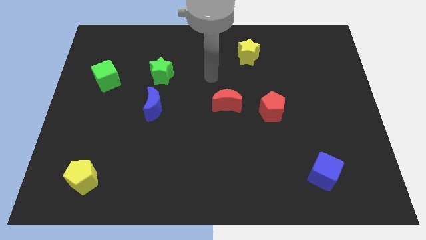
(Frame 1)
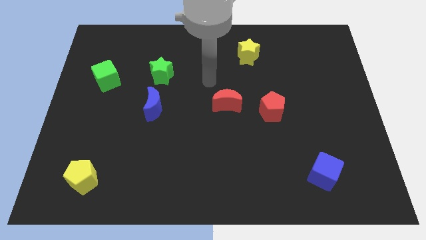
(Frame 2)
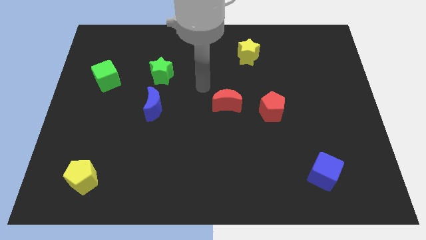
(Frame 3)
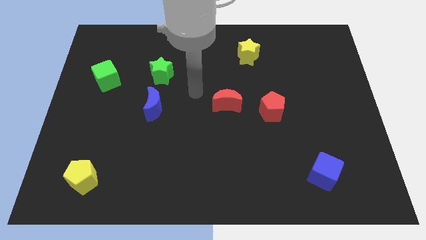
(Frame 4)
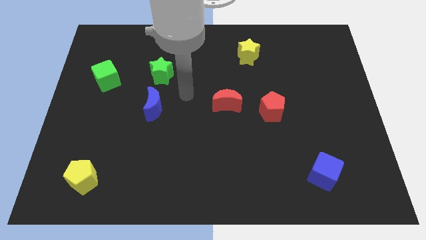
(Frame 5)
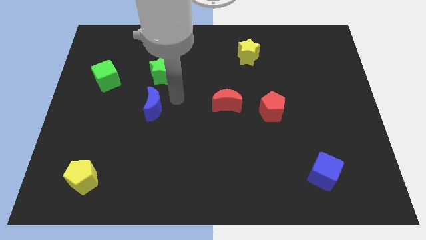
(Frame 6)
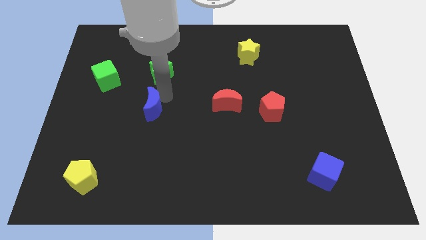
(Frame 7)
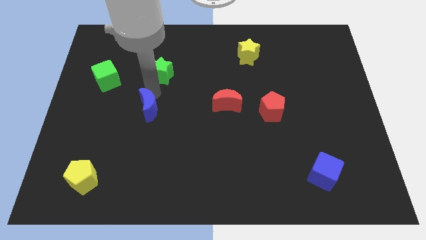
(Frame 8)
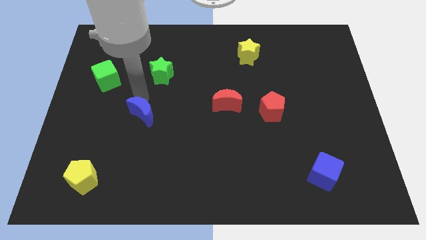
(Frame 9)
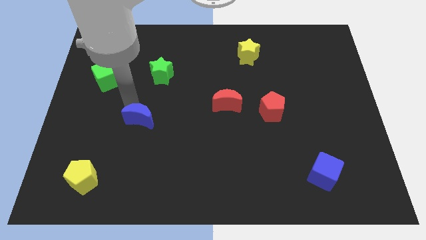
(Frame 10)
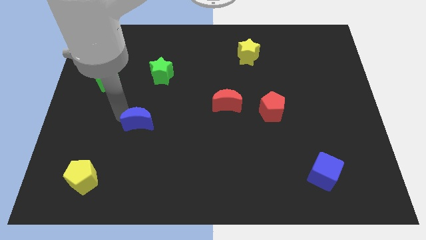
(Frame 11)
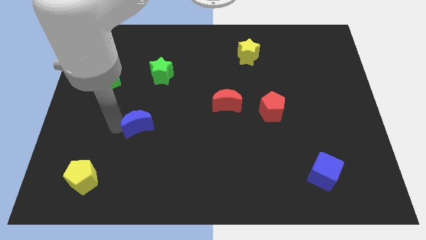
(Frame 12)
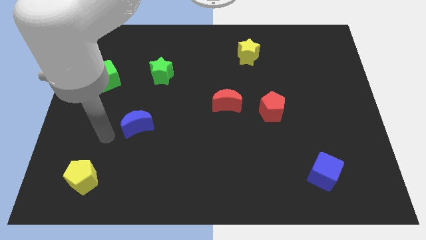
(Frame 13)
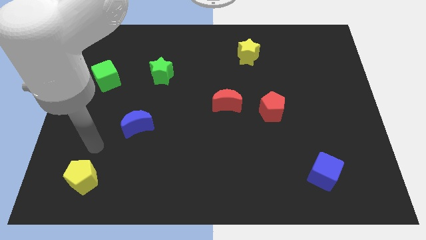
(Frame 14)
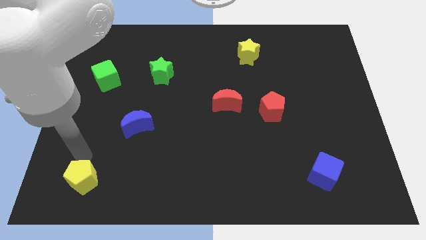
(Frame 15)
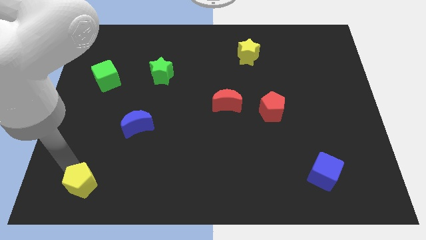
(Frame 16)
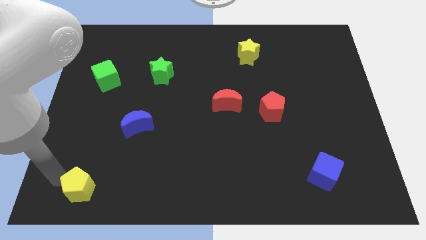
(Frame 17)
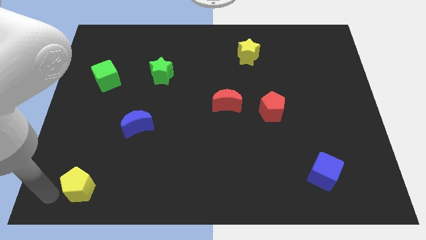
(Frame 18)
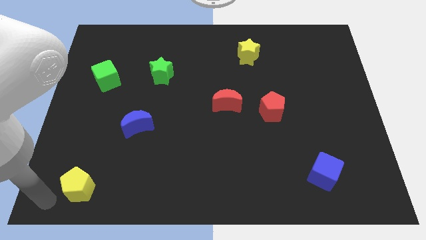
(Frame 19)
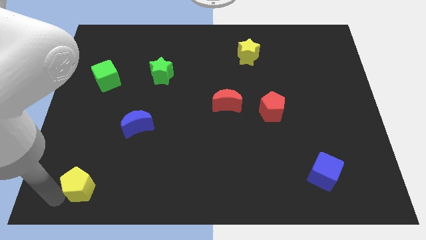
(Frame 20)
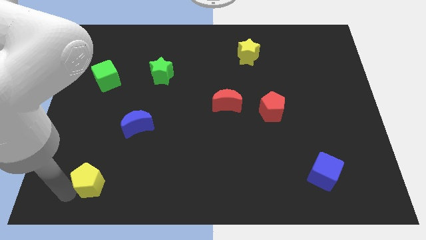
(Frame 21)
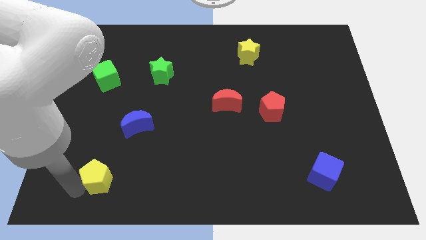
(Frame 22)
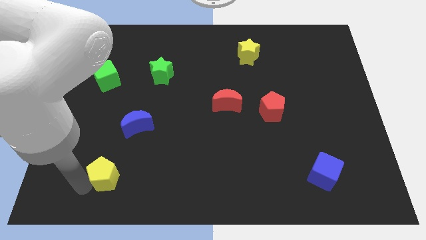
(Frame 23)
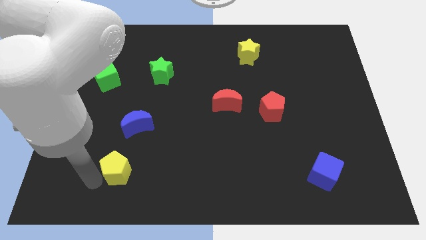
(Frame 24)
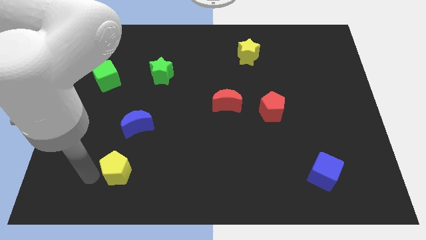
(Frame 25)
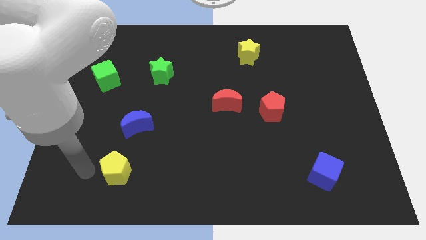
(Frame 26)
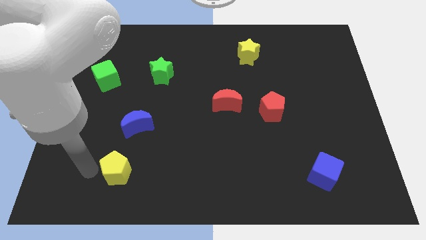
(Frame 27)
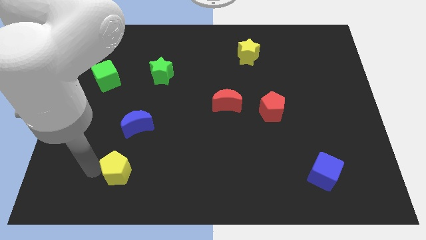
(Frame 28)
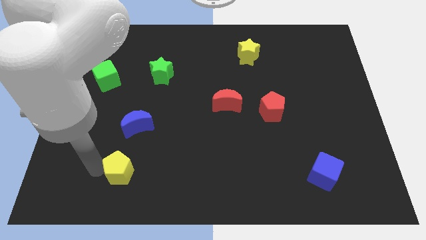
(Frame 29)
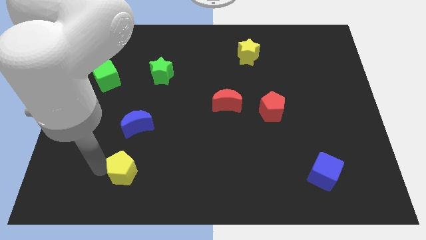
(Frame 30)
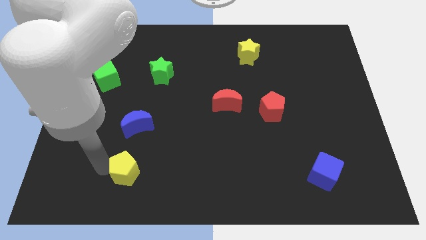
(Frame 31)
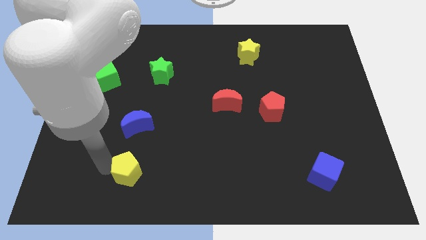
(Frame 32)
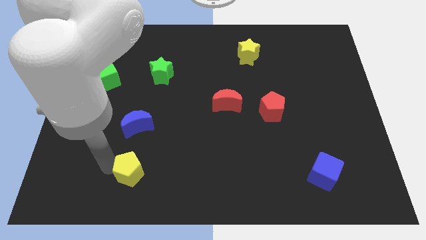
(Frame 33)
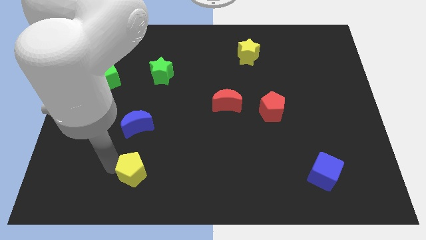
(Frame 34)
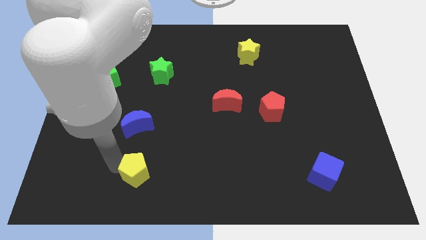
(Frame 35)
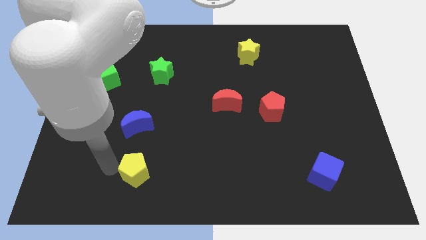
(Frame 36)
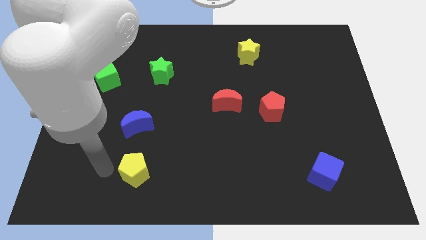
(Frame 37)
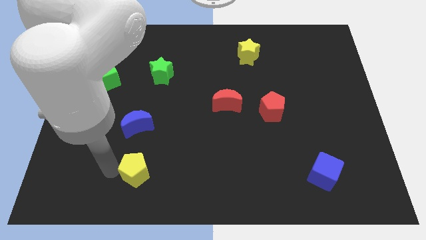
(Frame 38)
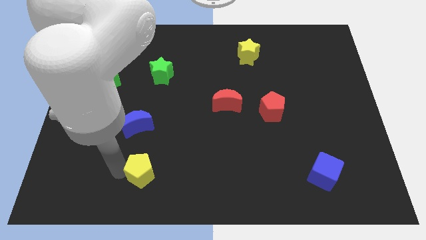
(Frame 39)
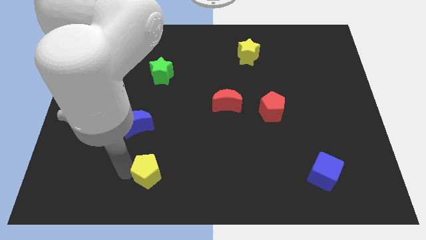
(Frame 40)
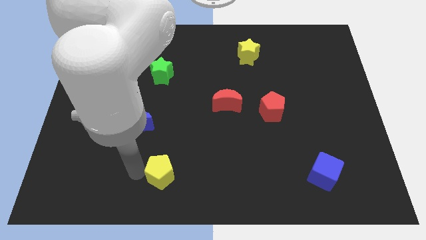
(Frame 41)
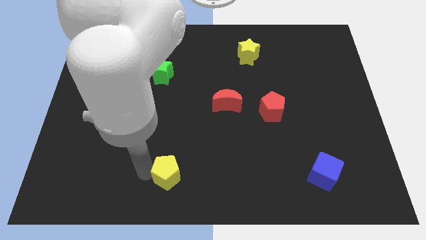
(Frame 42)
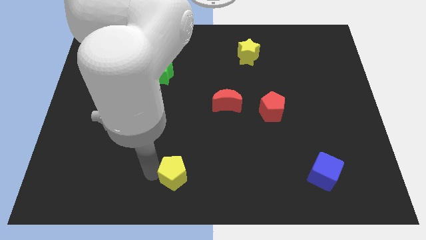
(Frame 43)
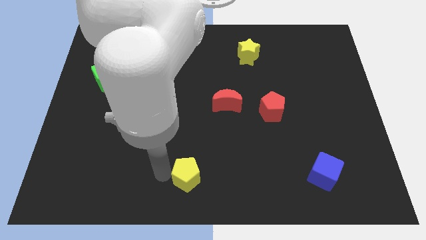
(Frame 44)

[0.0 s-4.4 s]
slide the yellow pentagon to the right

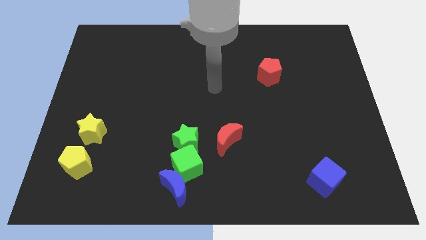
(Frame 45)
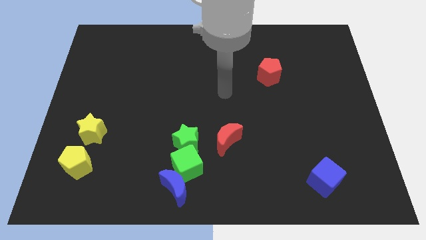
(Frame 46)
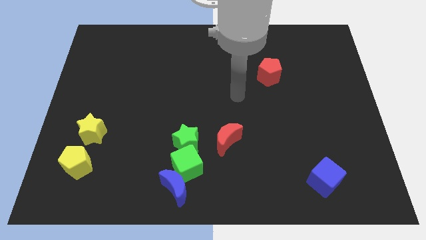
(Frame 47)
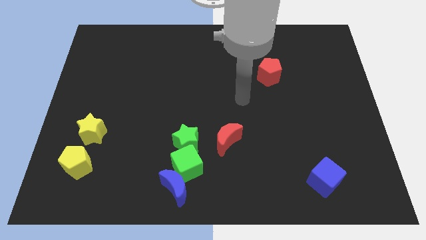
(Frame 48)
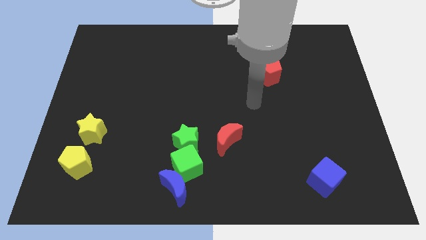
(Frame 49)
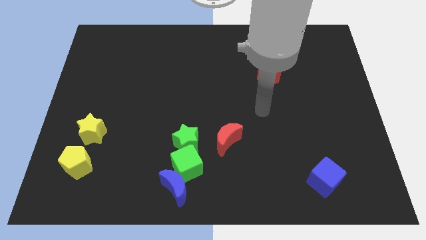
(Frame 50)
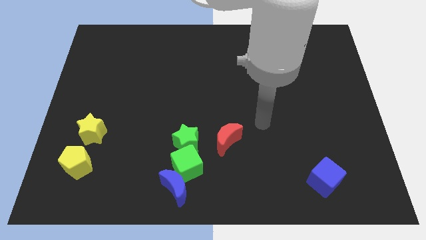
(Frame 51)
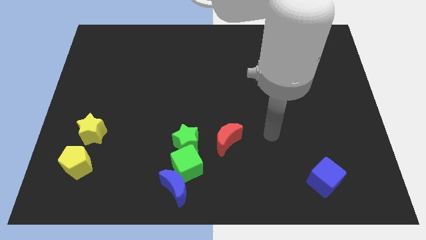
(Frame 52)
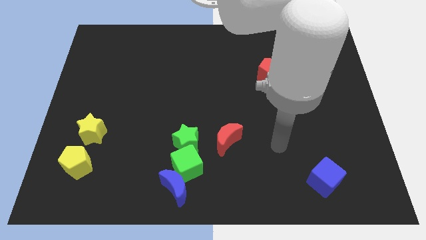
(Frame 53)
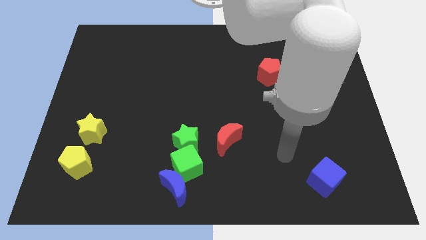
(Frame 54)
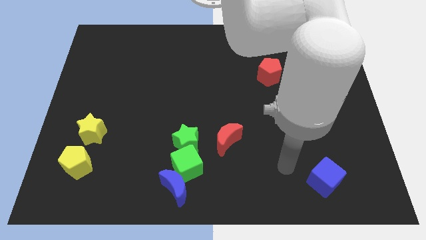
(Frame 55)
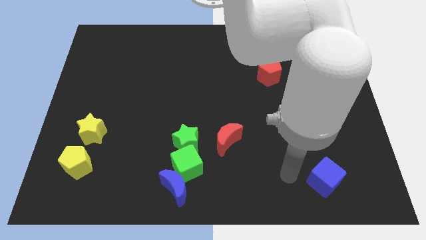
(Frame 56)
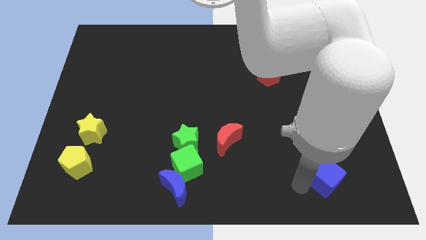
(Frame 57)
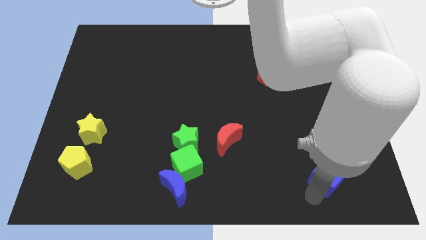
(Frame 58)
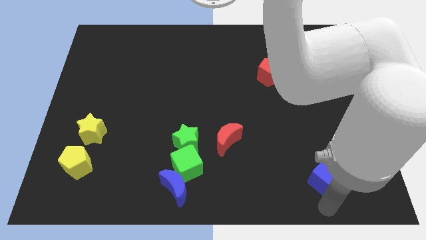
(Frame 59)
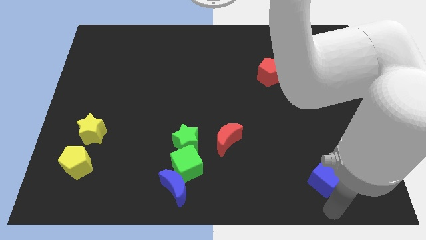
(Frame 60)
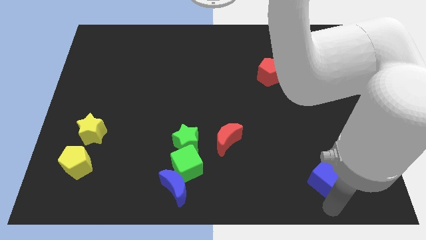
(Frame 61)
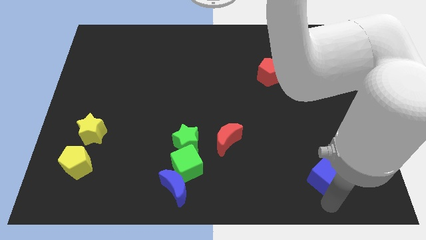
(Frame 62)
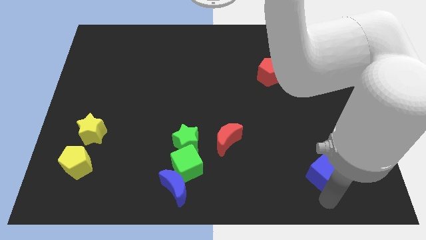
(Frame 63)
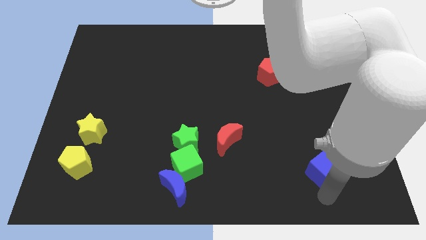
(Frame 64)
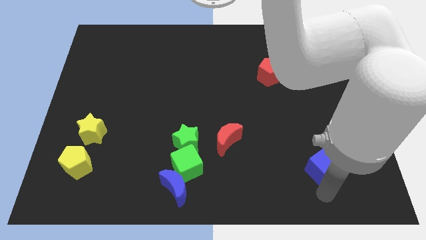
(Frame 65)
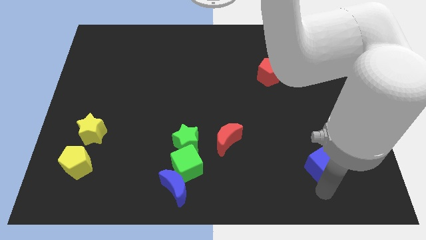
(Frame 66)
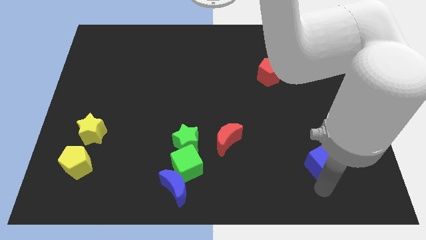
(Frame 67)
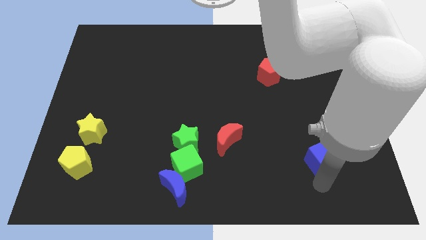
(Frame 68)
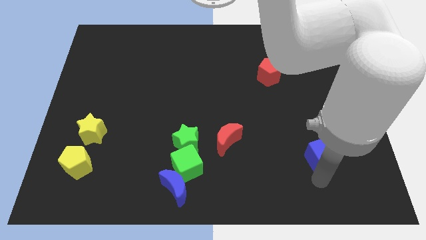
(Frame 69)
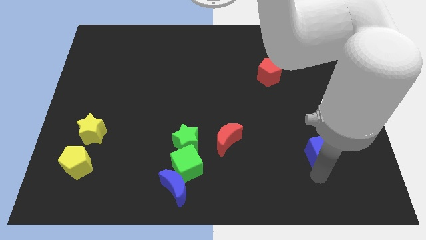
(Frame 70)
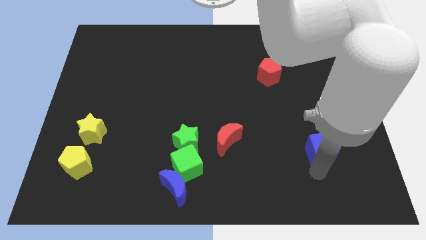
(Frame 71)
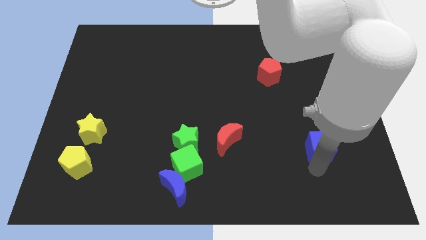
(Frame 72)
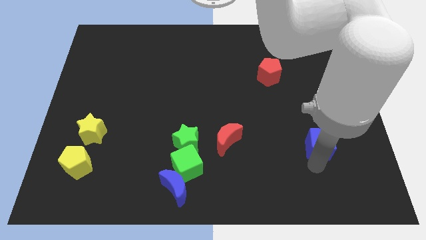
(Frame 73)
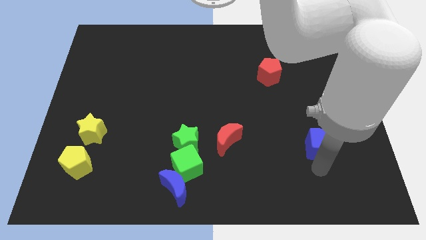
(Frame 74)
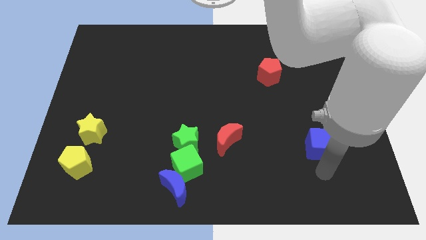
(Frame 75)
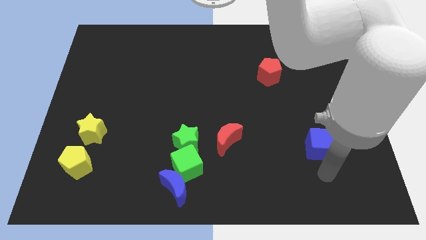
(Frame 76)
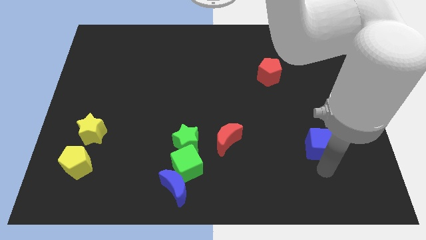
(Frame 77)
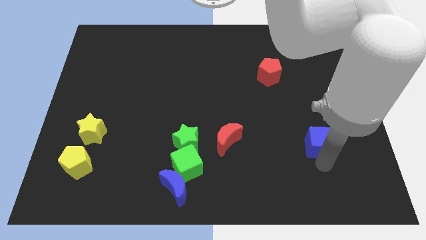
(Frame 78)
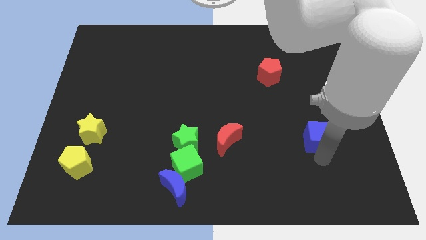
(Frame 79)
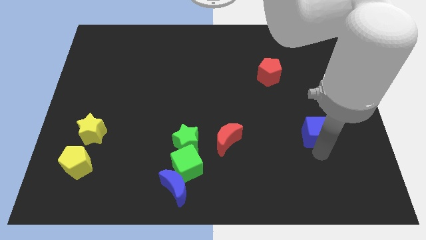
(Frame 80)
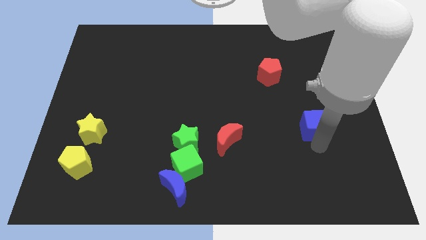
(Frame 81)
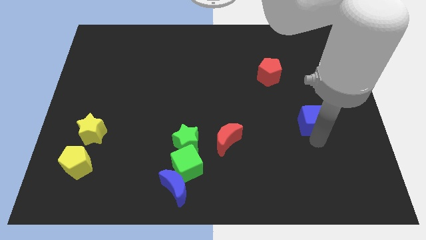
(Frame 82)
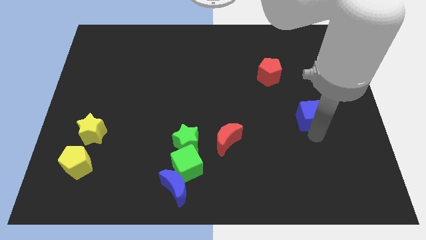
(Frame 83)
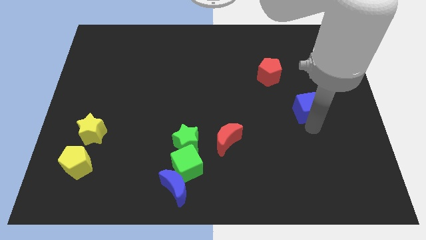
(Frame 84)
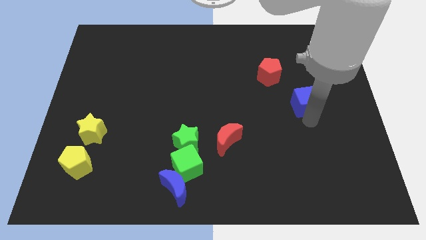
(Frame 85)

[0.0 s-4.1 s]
move the blue cube up
